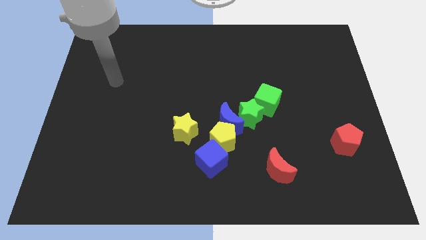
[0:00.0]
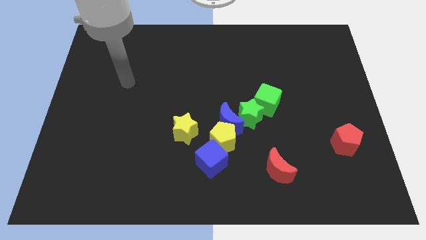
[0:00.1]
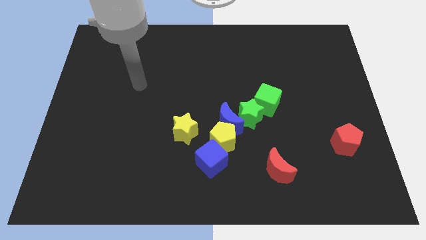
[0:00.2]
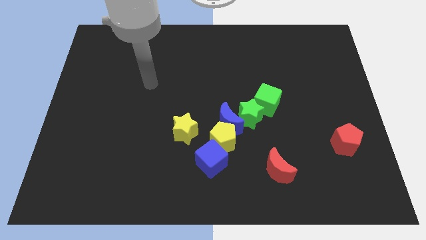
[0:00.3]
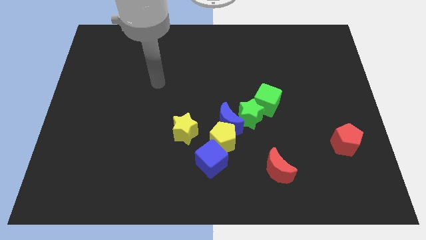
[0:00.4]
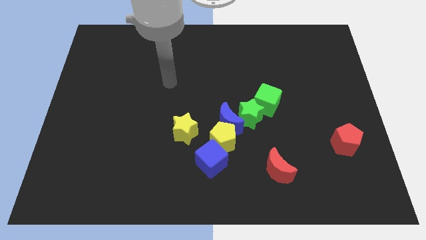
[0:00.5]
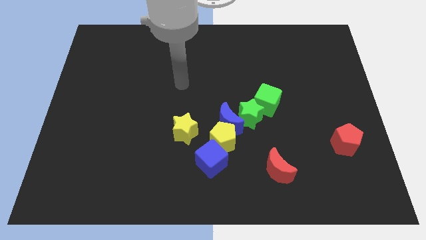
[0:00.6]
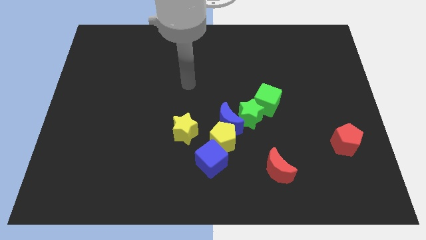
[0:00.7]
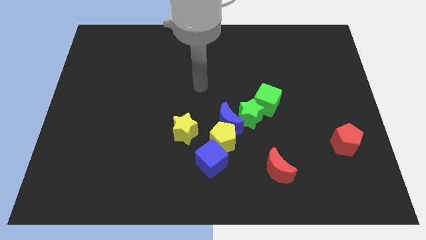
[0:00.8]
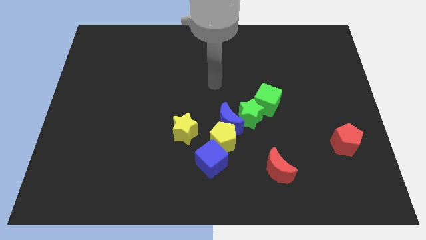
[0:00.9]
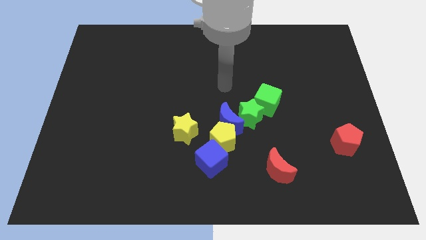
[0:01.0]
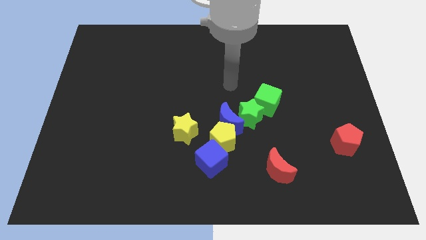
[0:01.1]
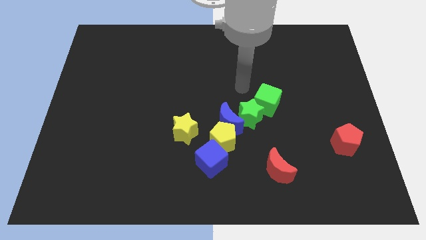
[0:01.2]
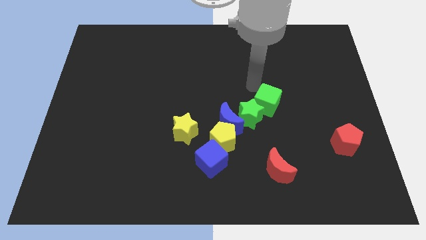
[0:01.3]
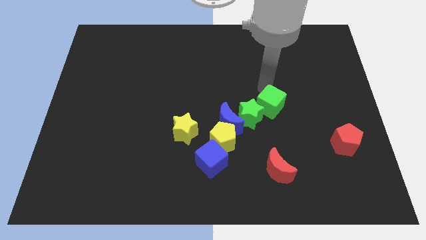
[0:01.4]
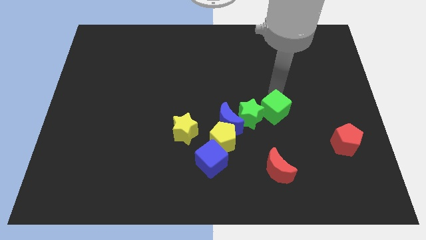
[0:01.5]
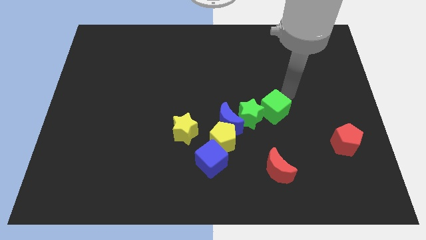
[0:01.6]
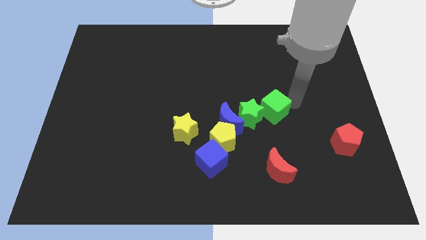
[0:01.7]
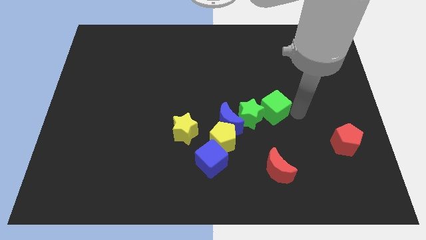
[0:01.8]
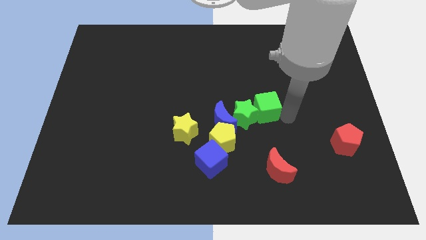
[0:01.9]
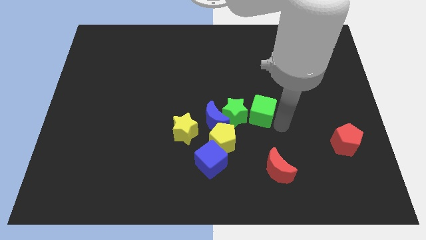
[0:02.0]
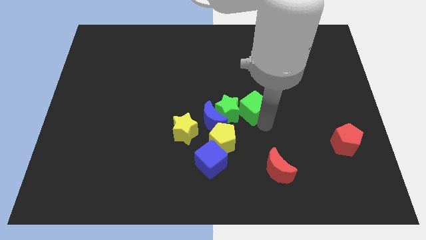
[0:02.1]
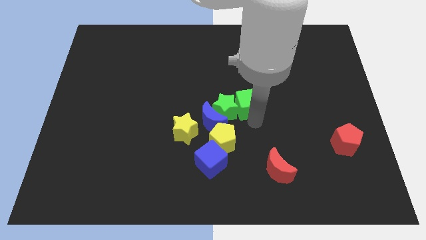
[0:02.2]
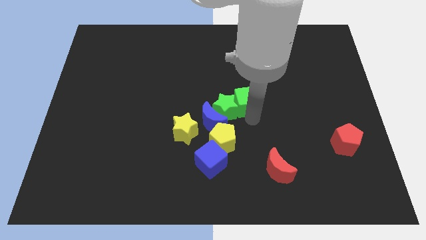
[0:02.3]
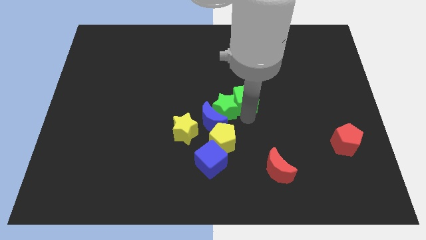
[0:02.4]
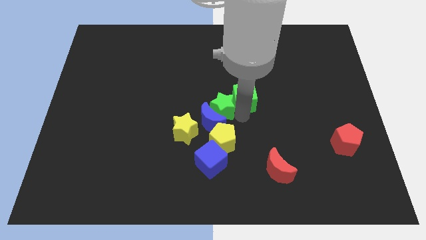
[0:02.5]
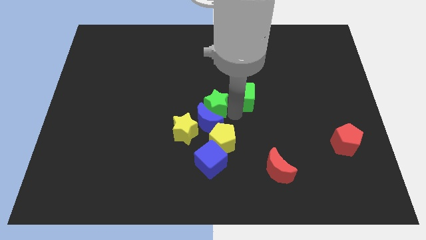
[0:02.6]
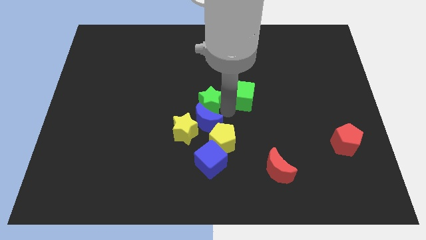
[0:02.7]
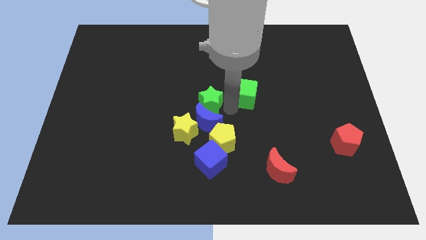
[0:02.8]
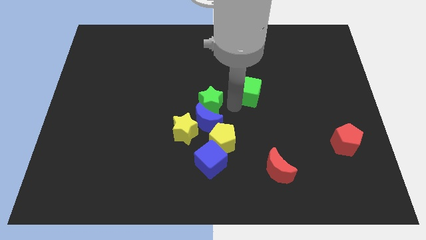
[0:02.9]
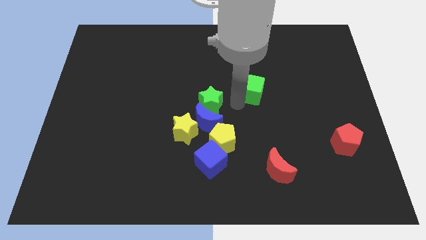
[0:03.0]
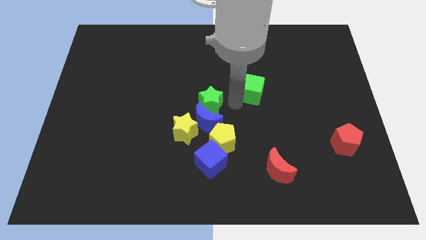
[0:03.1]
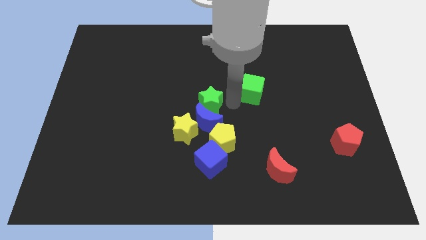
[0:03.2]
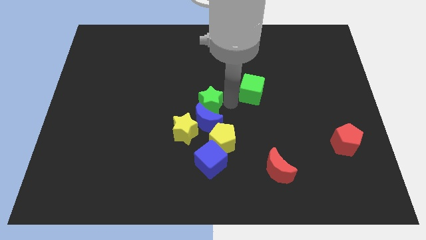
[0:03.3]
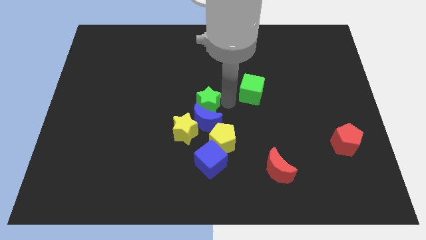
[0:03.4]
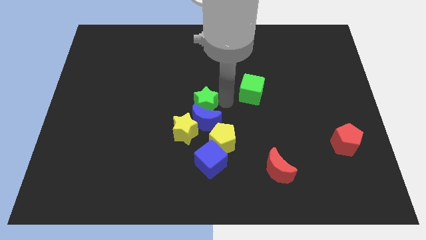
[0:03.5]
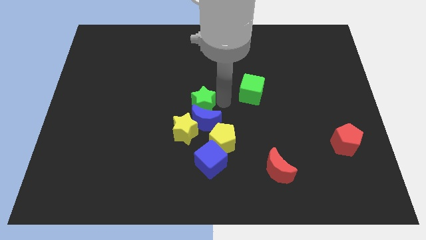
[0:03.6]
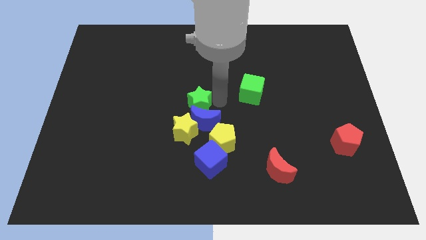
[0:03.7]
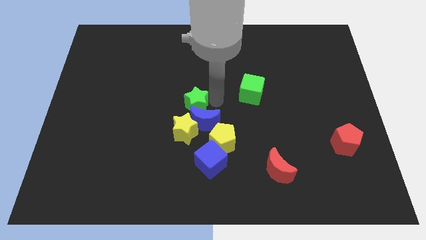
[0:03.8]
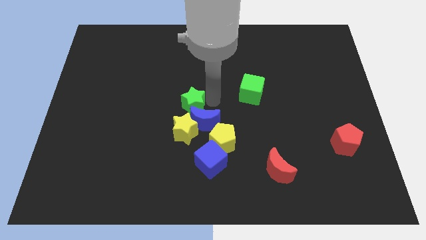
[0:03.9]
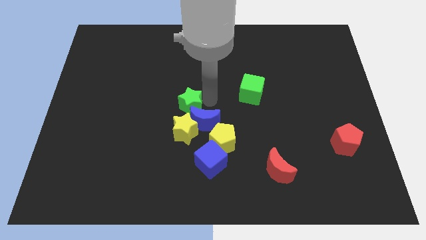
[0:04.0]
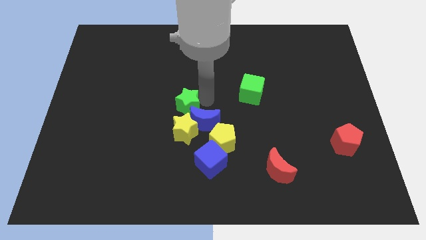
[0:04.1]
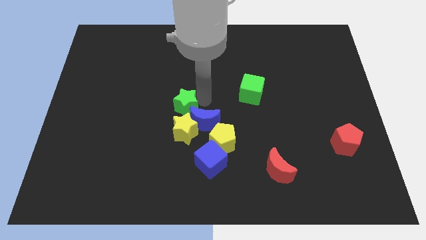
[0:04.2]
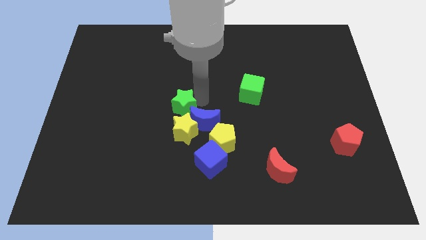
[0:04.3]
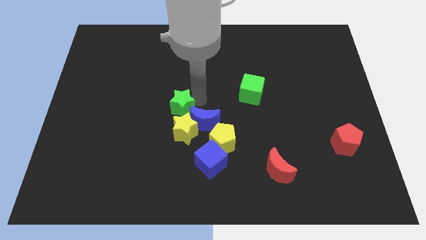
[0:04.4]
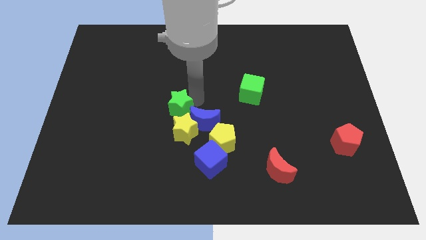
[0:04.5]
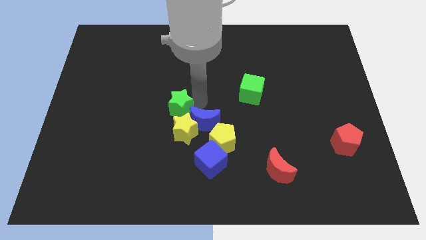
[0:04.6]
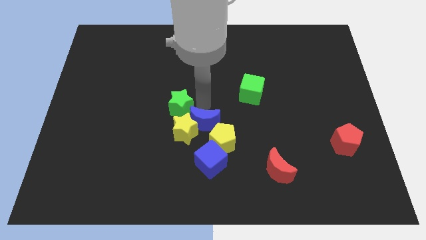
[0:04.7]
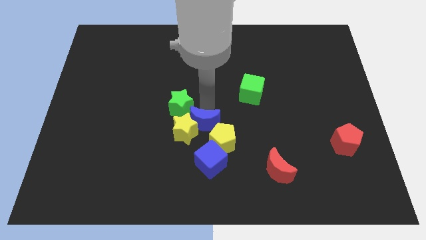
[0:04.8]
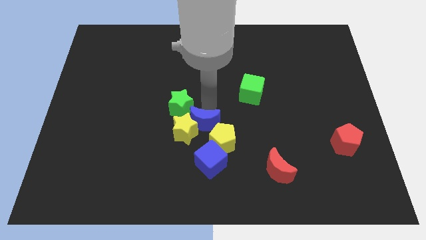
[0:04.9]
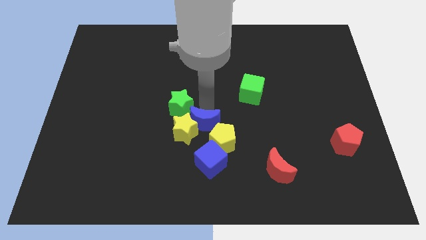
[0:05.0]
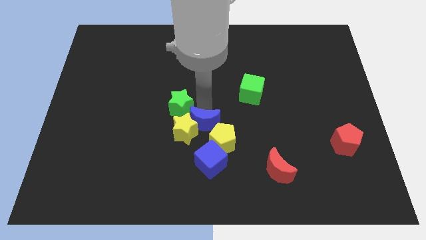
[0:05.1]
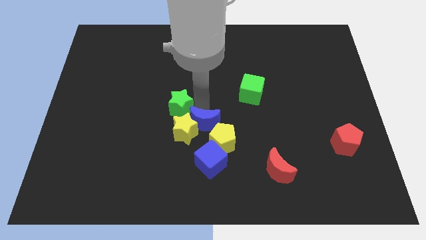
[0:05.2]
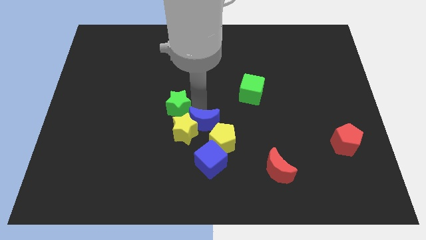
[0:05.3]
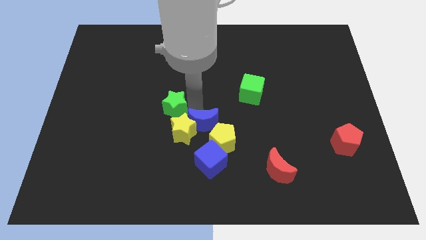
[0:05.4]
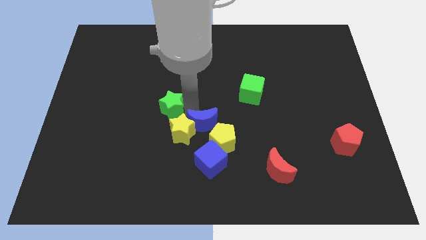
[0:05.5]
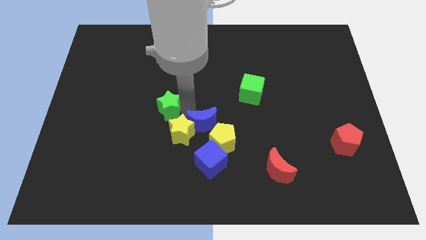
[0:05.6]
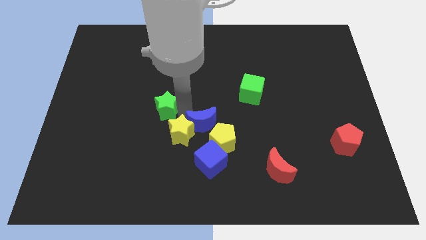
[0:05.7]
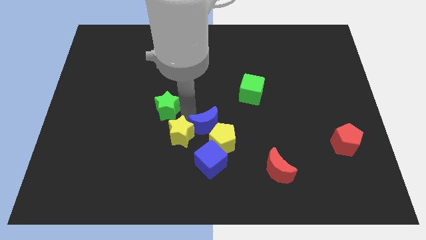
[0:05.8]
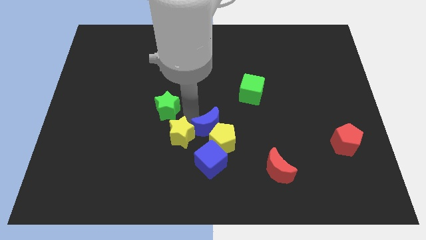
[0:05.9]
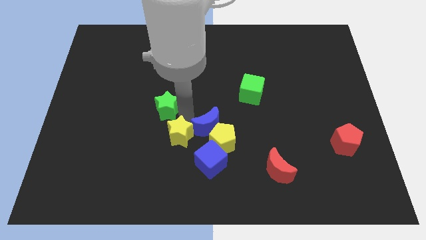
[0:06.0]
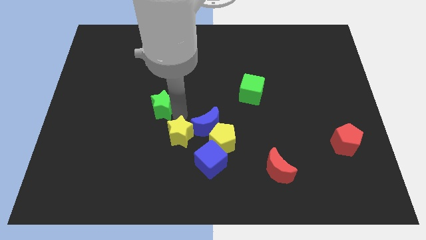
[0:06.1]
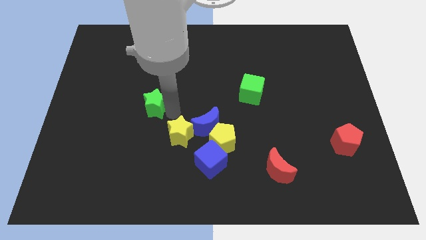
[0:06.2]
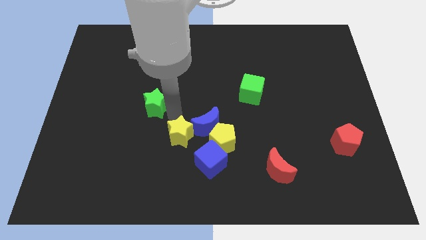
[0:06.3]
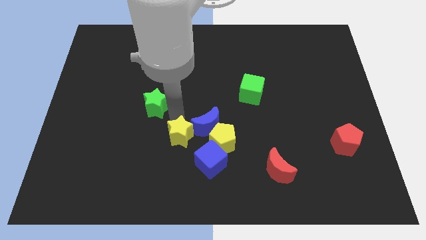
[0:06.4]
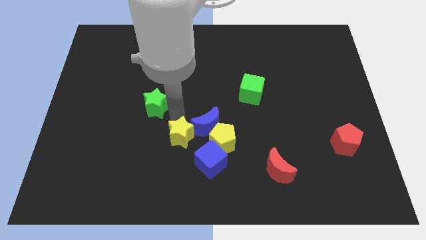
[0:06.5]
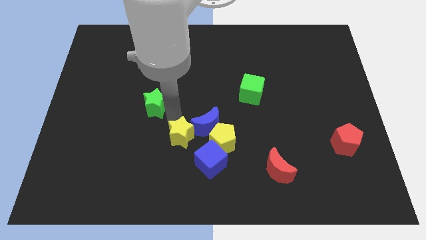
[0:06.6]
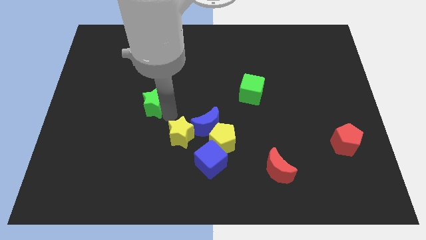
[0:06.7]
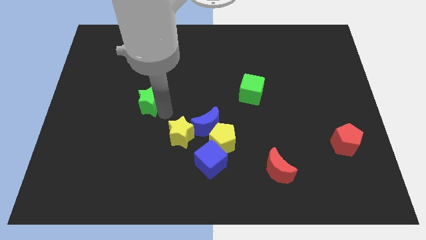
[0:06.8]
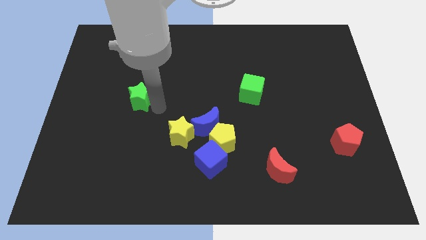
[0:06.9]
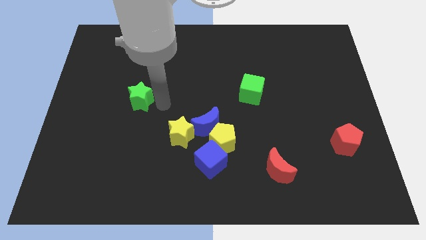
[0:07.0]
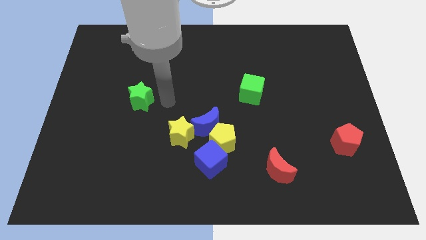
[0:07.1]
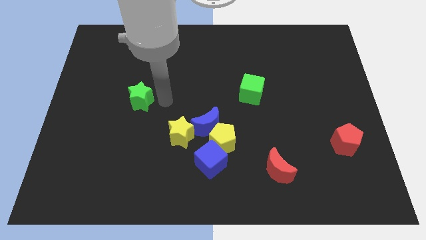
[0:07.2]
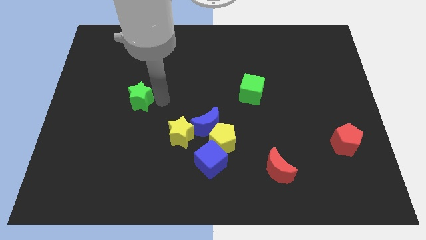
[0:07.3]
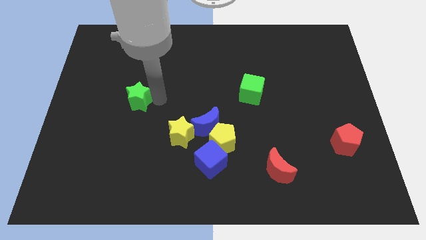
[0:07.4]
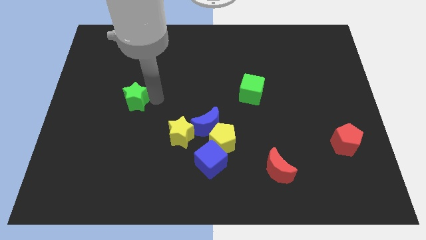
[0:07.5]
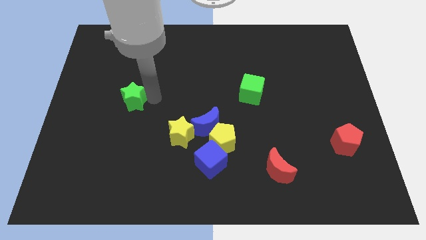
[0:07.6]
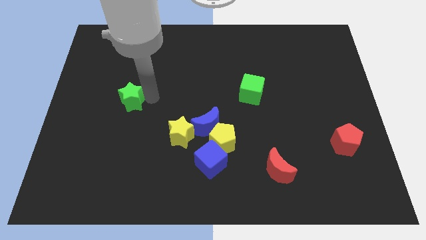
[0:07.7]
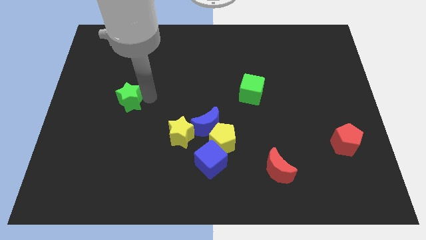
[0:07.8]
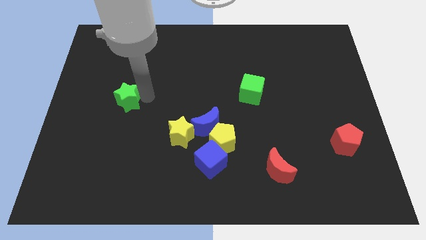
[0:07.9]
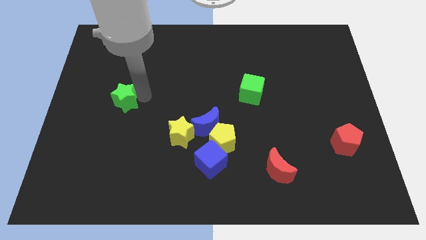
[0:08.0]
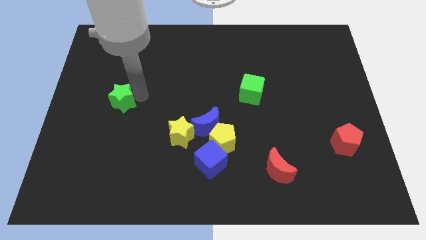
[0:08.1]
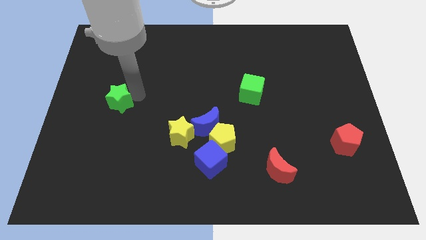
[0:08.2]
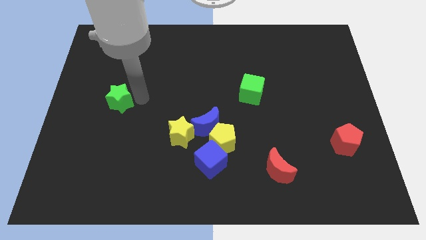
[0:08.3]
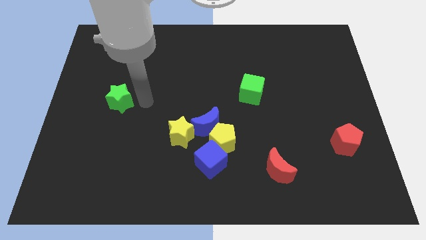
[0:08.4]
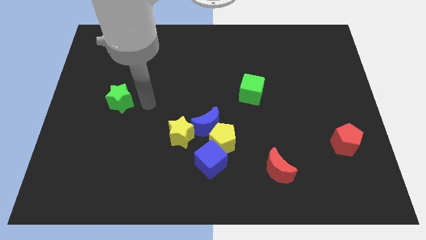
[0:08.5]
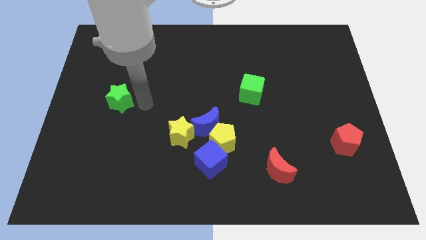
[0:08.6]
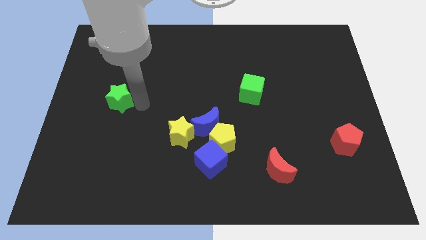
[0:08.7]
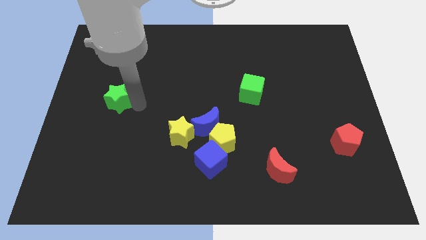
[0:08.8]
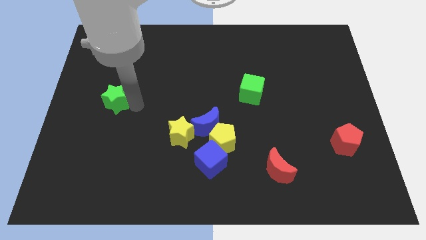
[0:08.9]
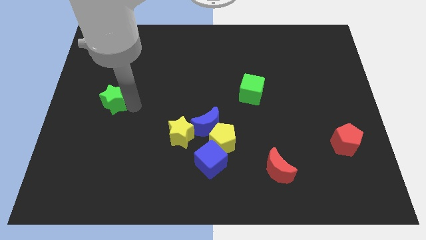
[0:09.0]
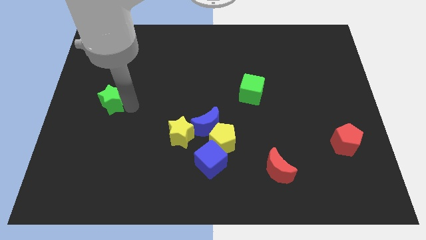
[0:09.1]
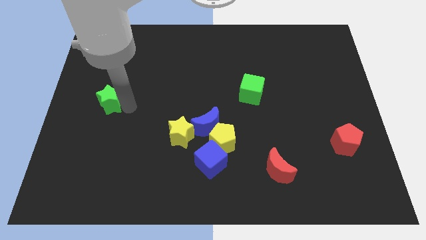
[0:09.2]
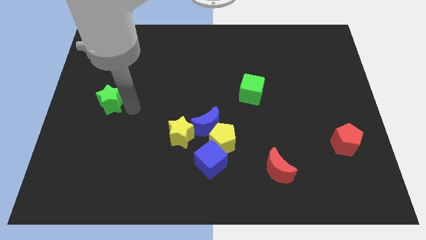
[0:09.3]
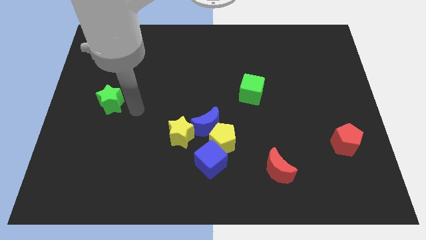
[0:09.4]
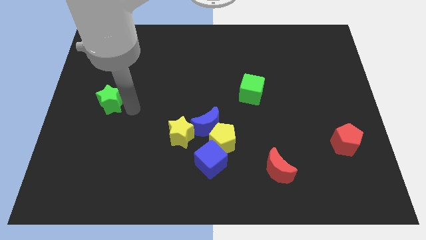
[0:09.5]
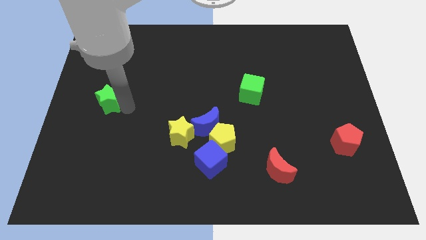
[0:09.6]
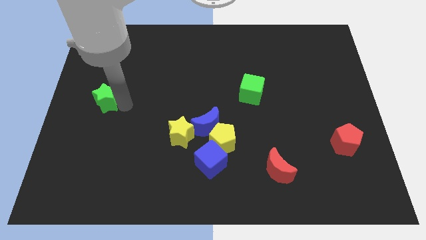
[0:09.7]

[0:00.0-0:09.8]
slide the green star to the left side
